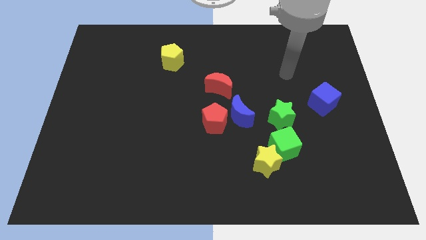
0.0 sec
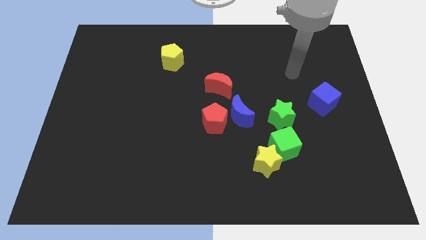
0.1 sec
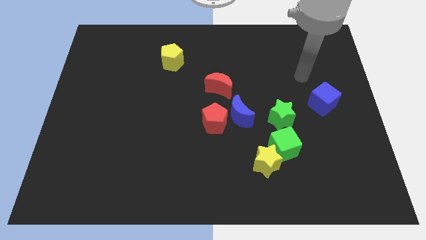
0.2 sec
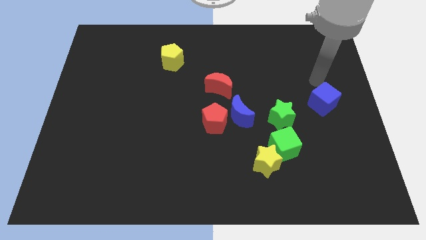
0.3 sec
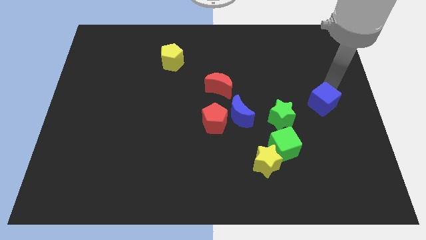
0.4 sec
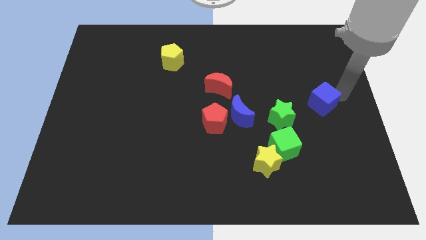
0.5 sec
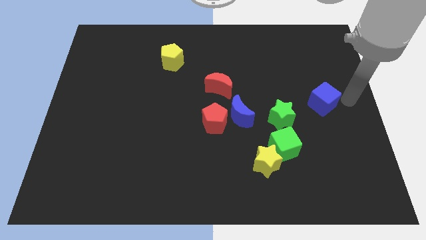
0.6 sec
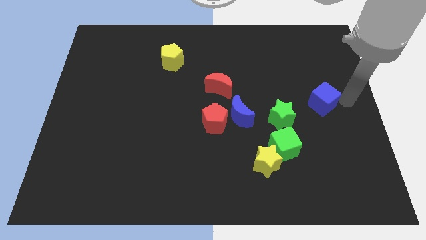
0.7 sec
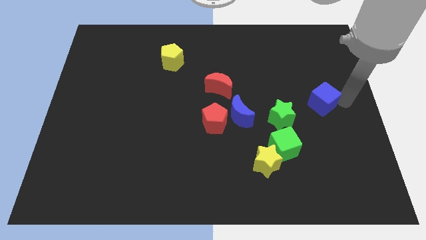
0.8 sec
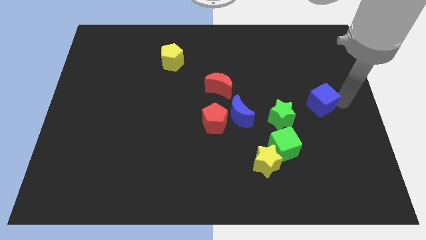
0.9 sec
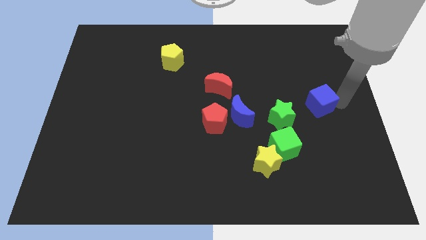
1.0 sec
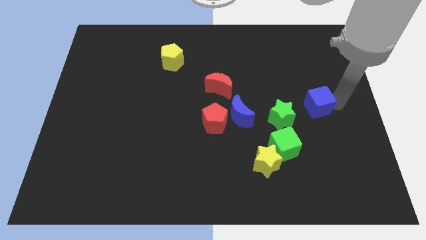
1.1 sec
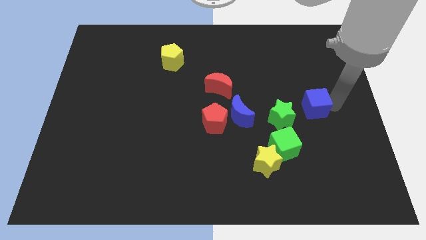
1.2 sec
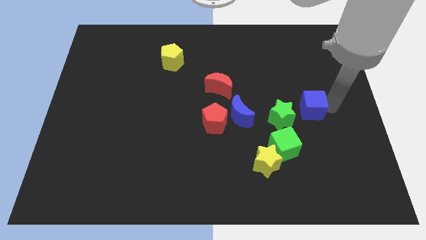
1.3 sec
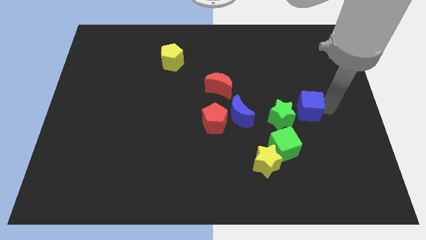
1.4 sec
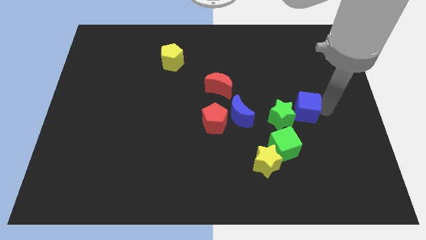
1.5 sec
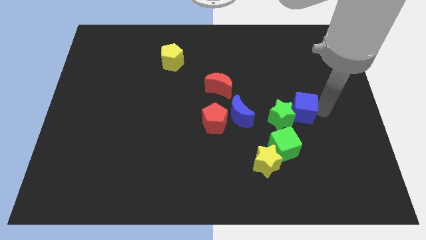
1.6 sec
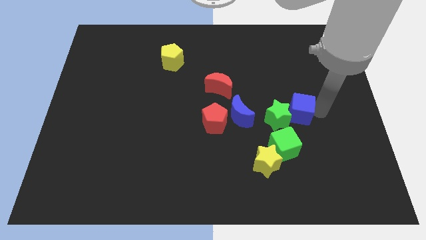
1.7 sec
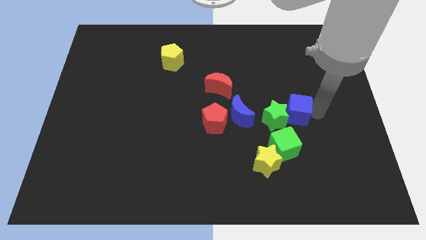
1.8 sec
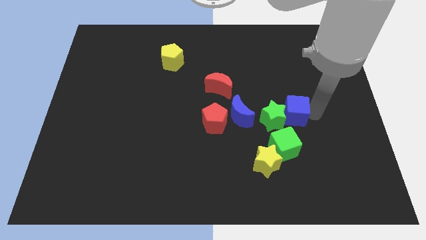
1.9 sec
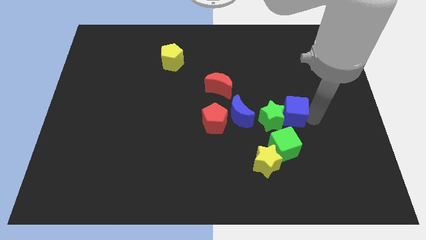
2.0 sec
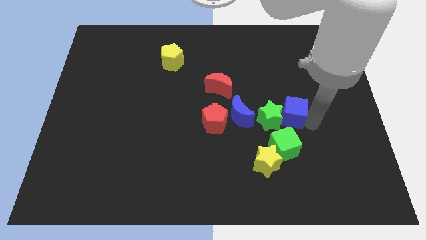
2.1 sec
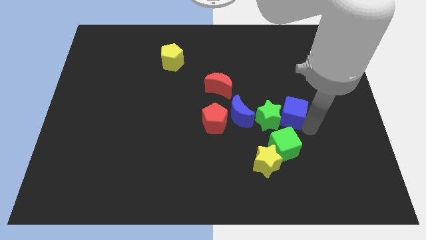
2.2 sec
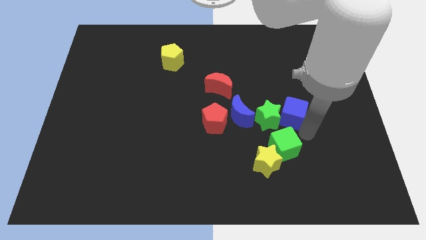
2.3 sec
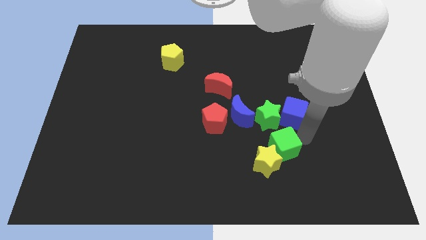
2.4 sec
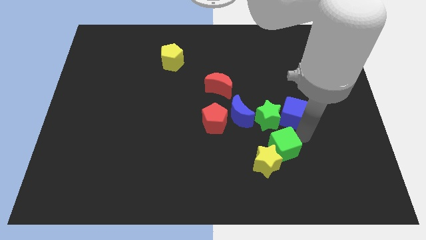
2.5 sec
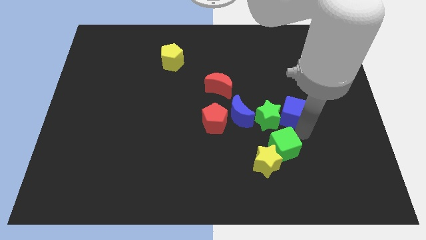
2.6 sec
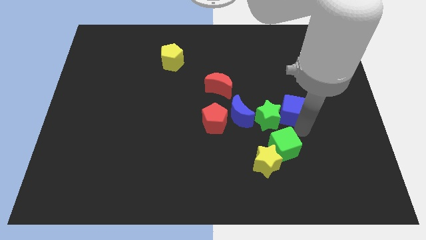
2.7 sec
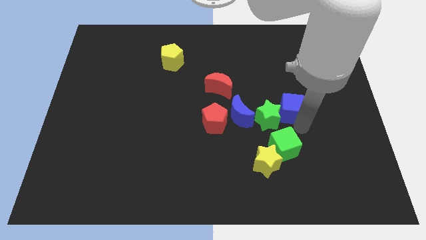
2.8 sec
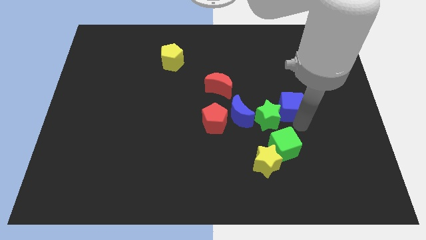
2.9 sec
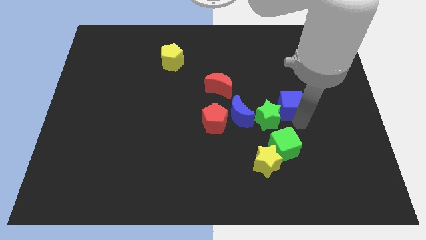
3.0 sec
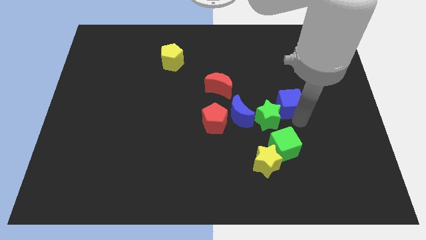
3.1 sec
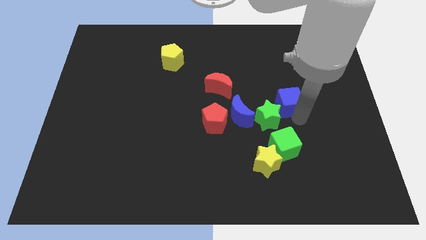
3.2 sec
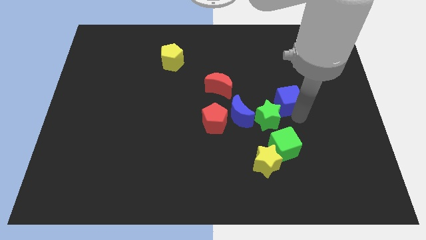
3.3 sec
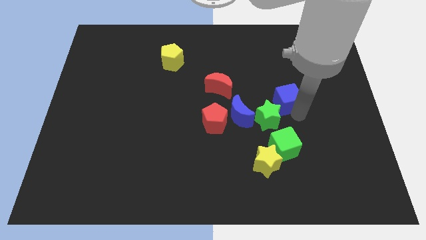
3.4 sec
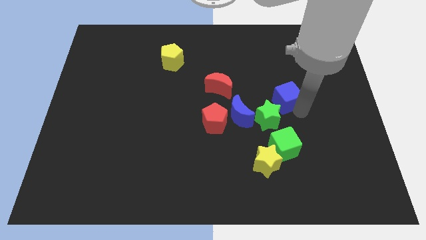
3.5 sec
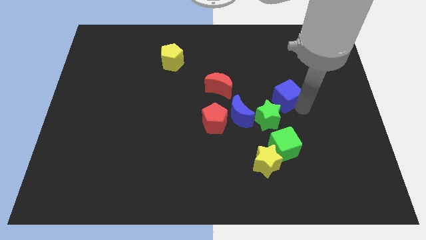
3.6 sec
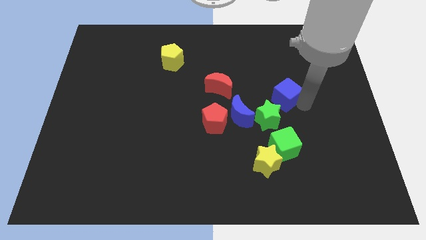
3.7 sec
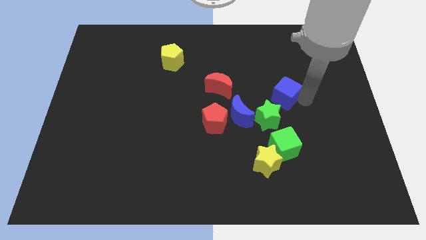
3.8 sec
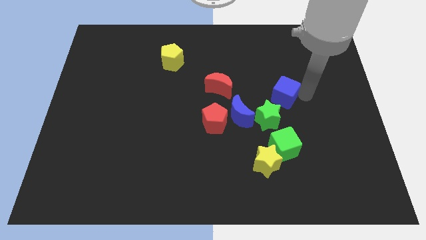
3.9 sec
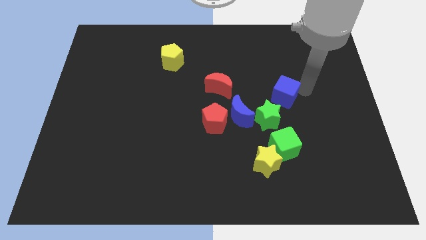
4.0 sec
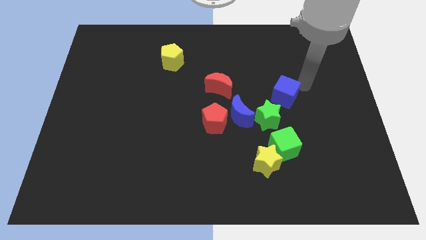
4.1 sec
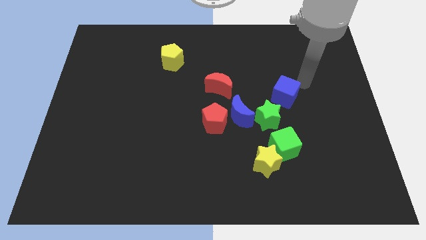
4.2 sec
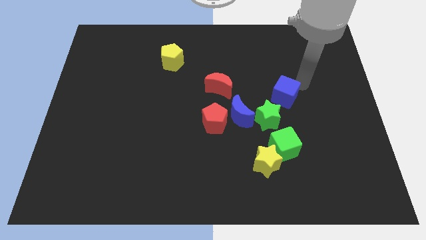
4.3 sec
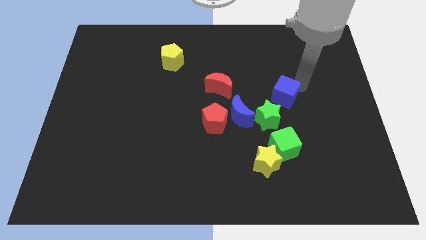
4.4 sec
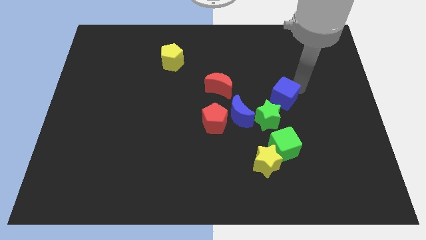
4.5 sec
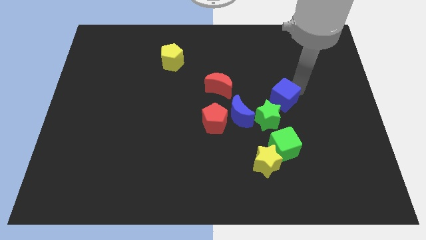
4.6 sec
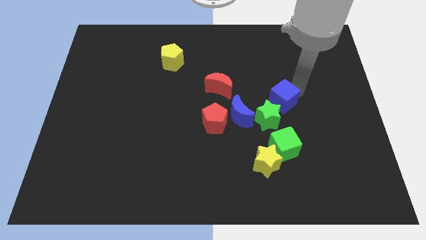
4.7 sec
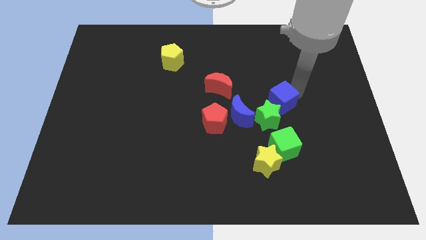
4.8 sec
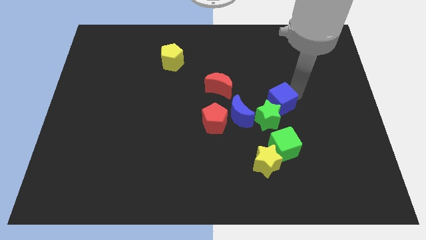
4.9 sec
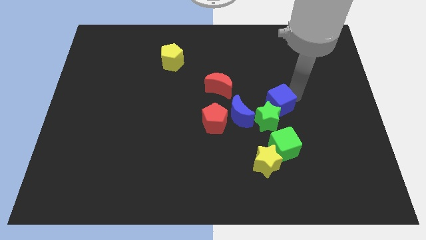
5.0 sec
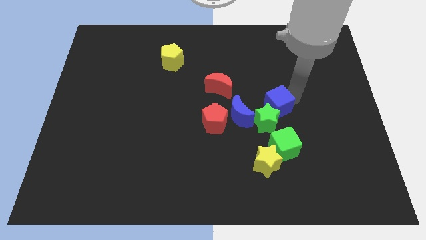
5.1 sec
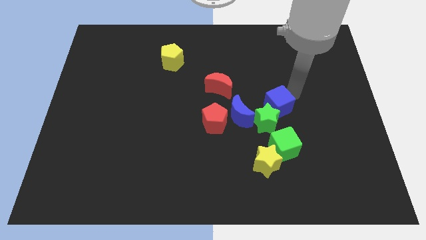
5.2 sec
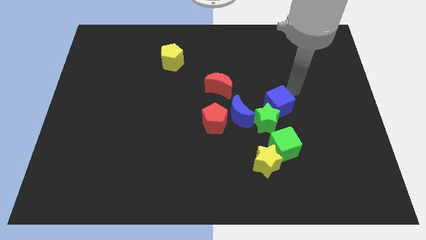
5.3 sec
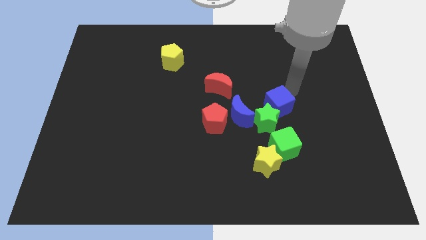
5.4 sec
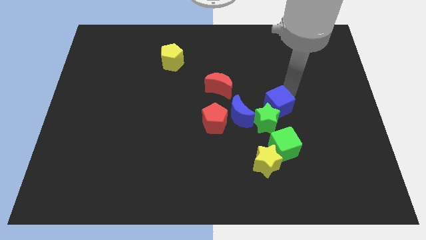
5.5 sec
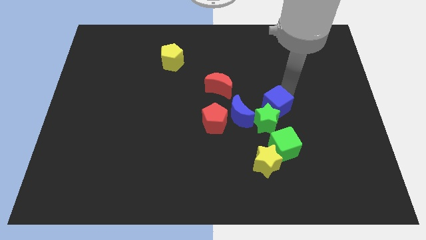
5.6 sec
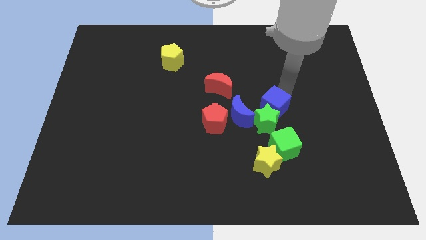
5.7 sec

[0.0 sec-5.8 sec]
put the blue cube to the top of the yellow star
